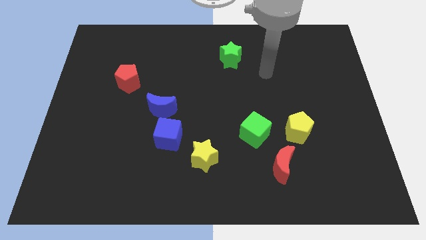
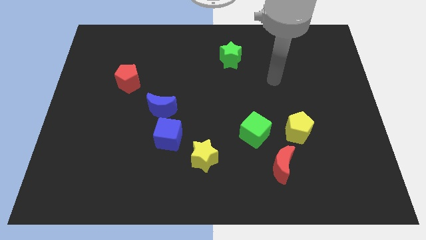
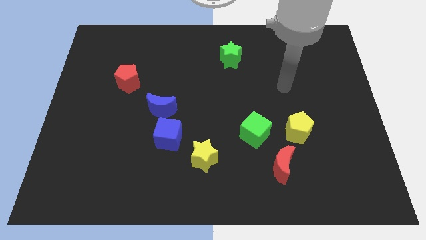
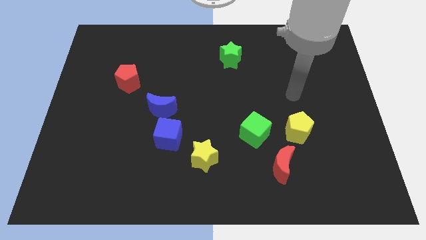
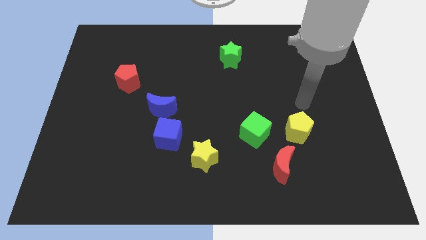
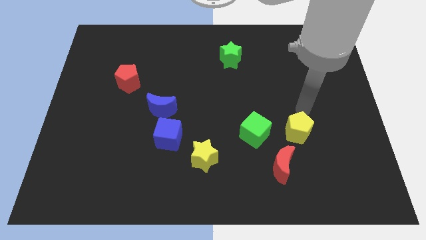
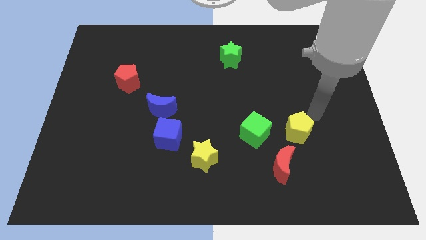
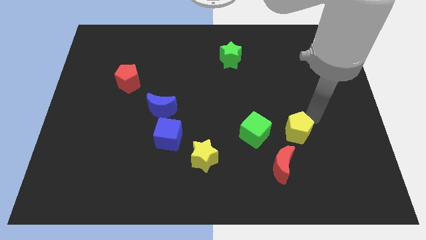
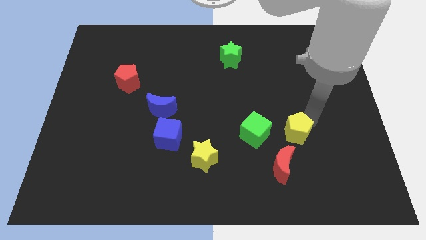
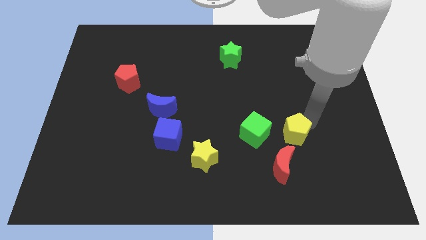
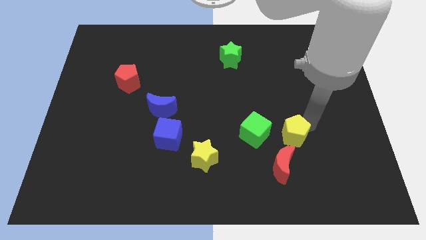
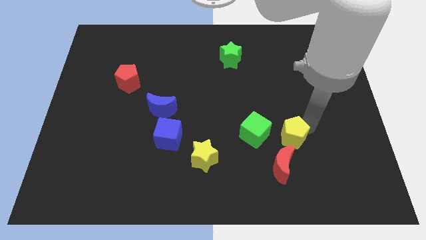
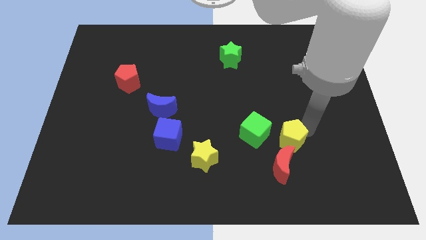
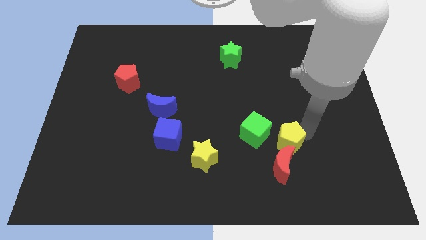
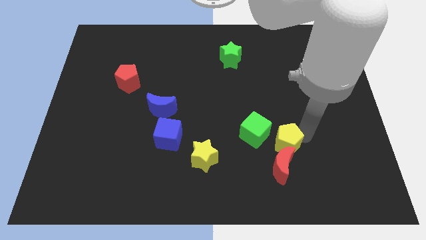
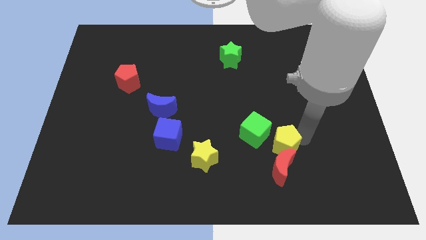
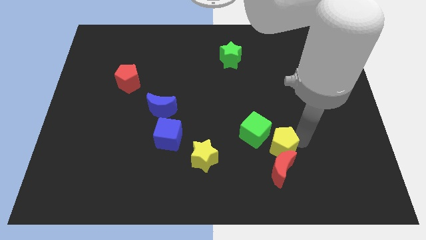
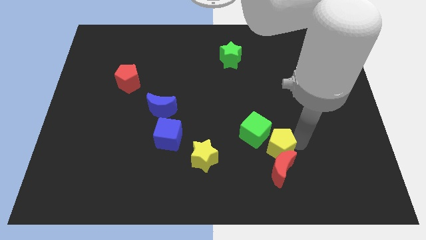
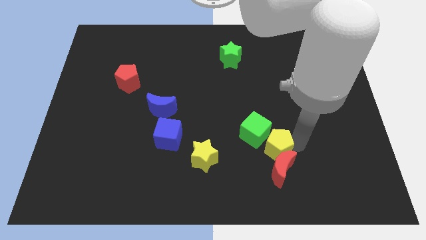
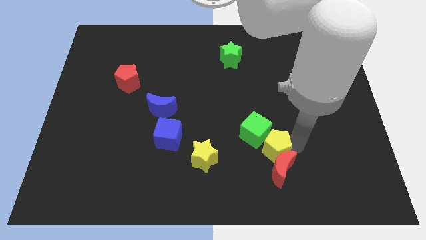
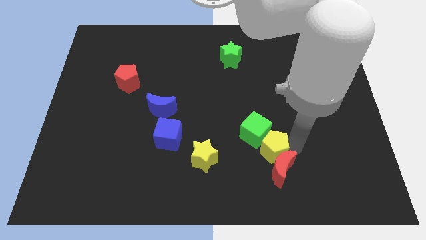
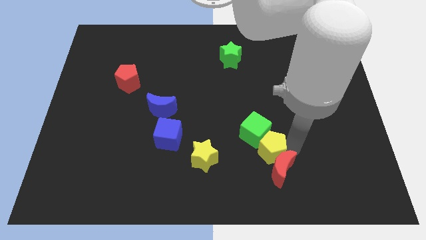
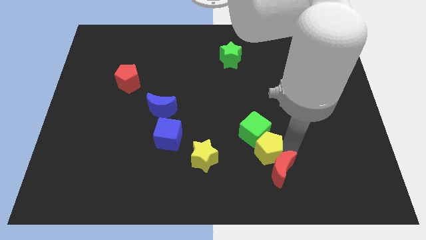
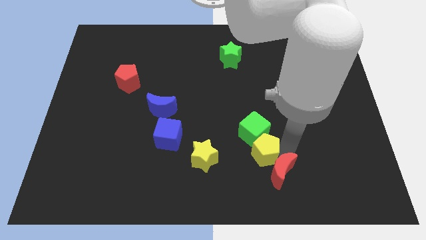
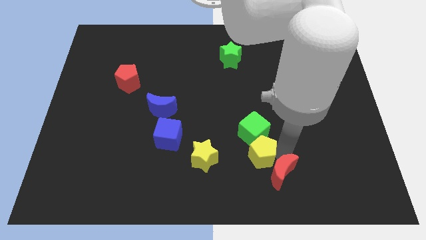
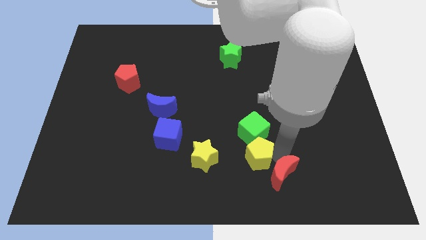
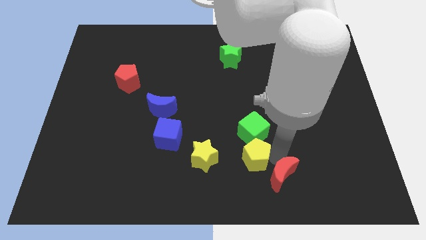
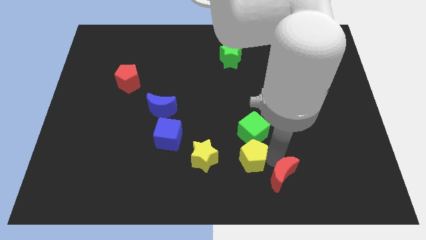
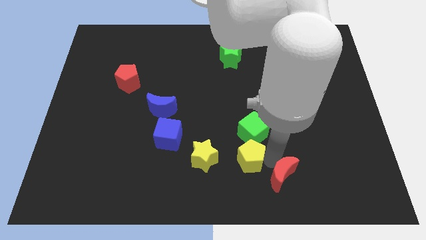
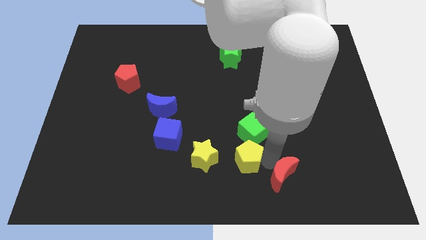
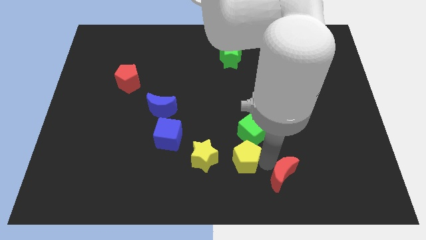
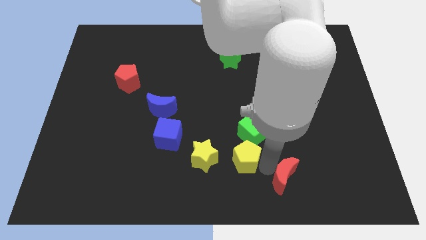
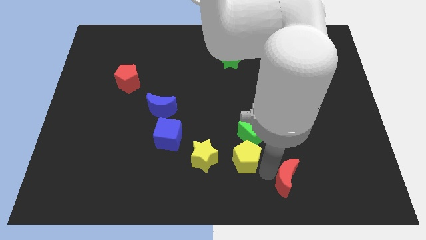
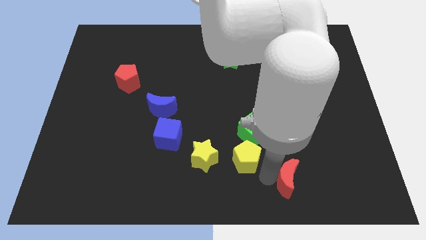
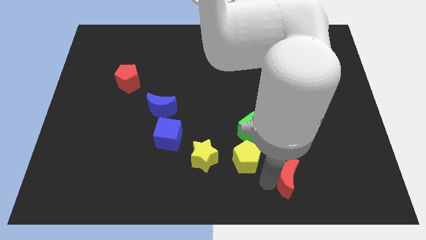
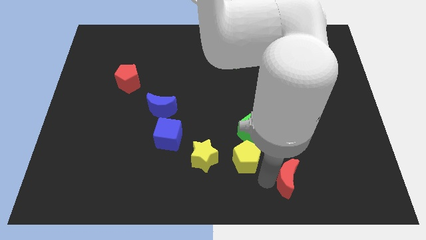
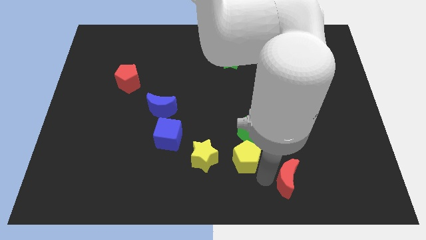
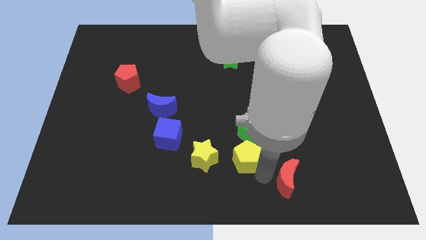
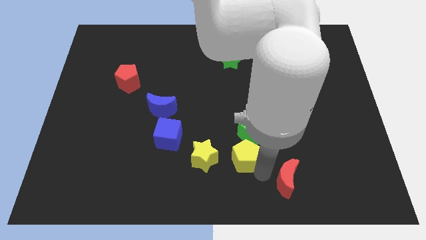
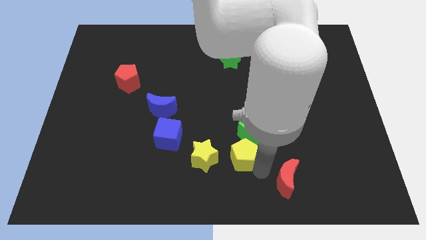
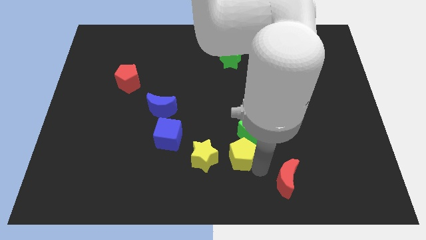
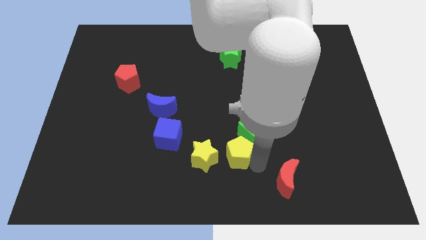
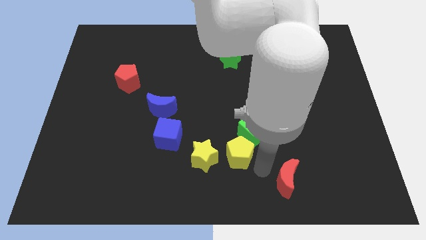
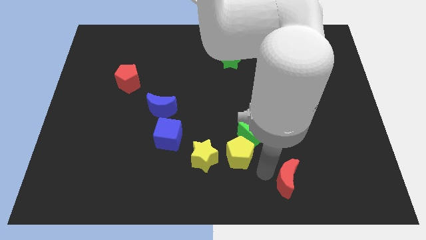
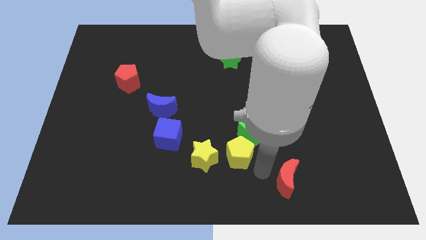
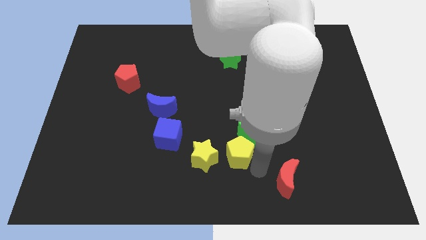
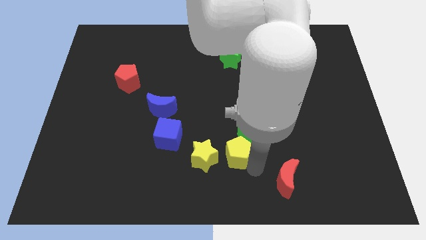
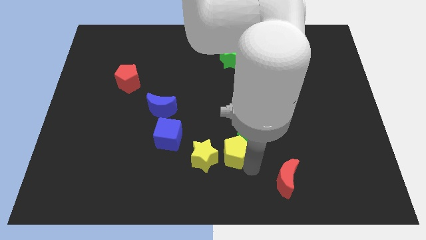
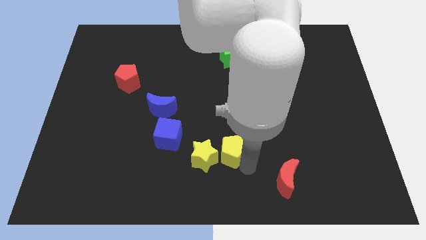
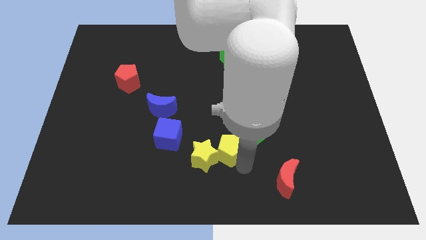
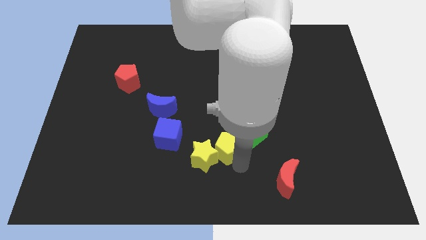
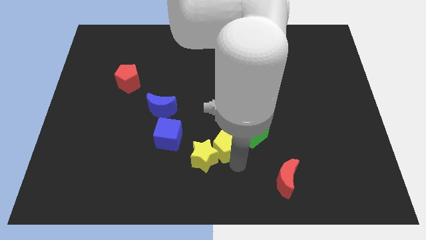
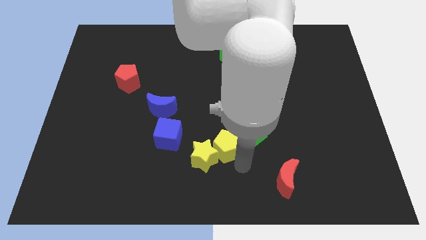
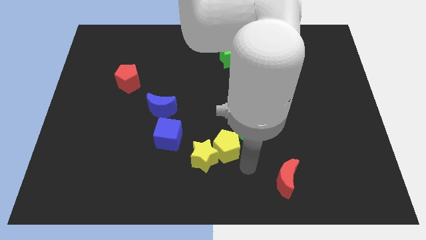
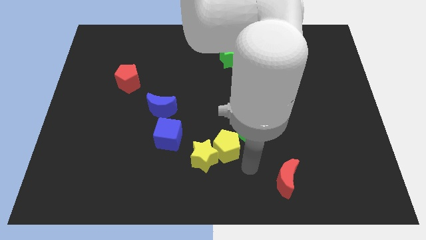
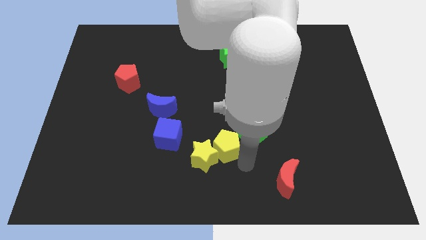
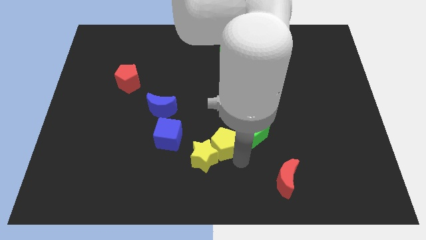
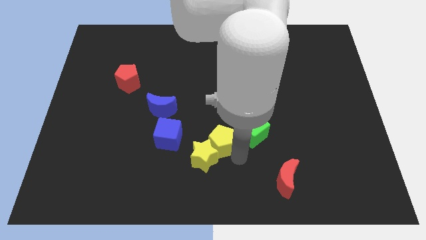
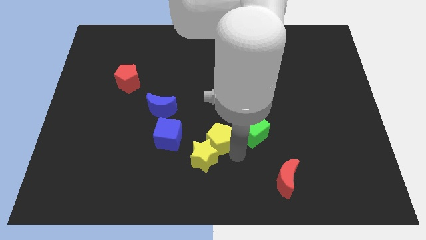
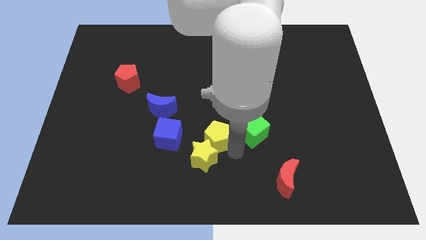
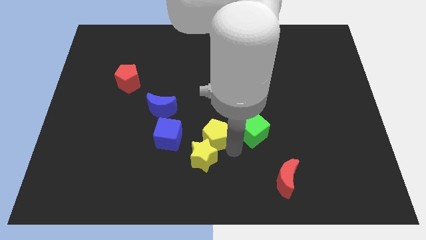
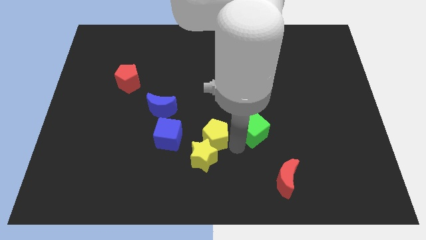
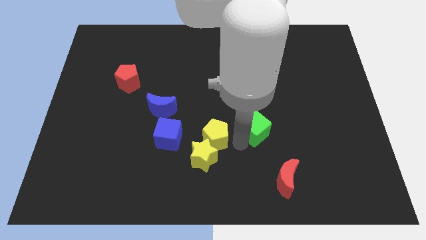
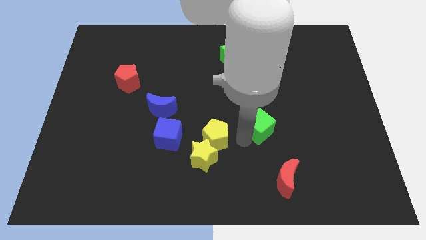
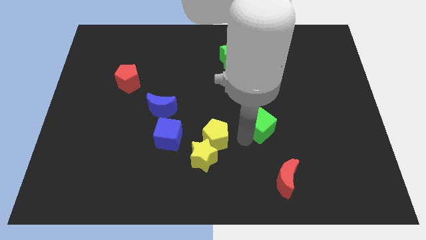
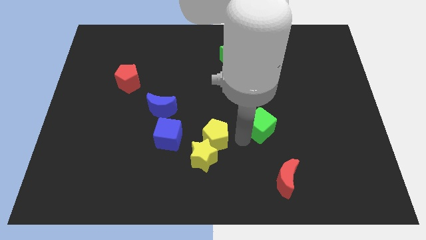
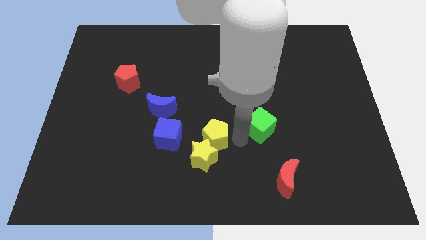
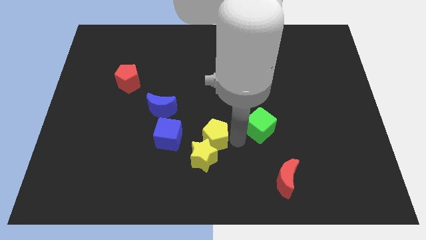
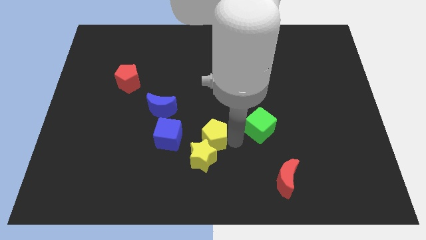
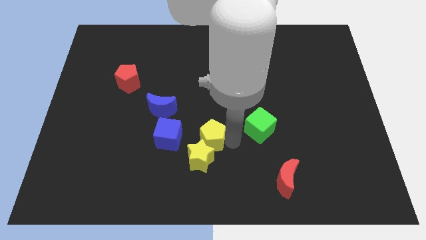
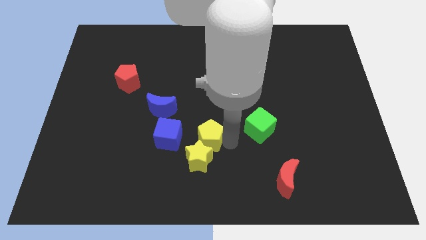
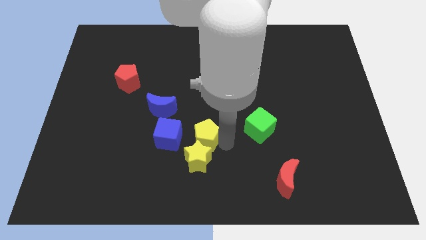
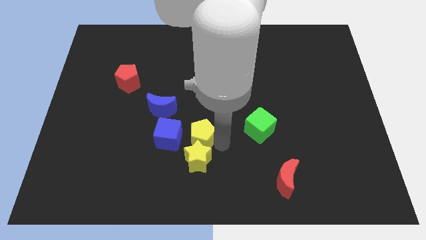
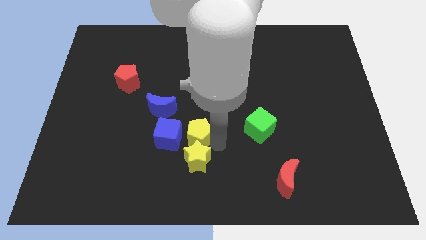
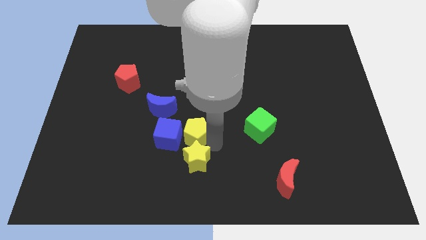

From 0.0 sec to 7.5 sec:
push the yellow pentagon next to the blue cube
